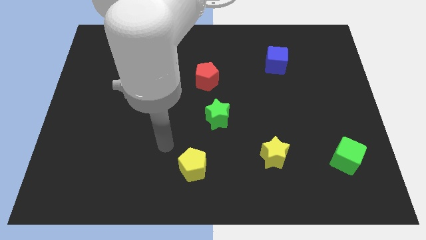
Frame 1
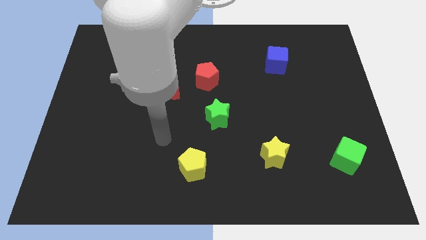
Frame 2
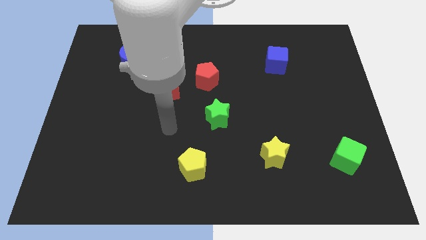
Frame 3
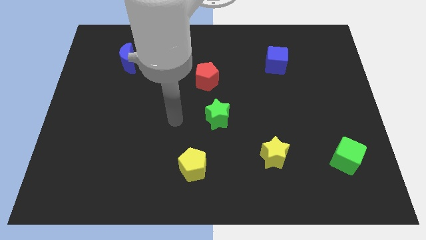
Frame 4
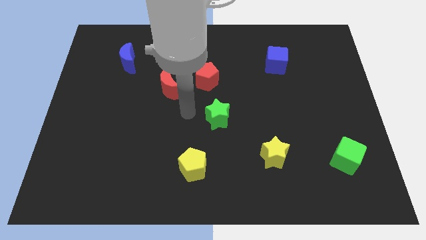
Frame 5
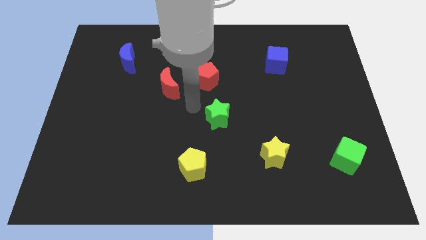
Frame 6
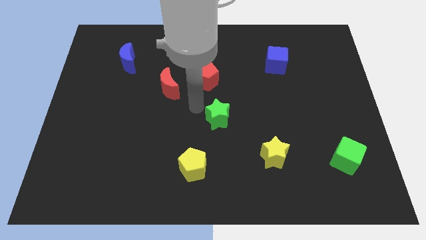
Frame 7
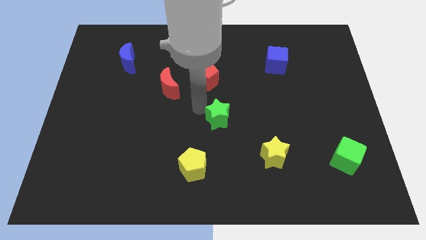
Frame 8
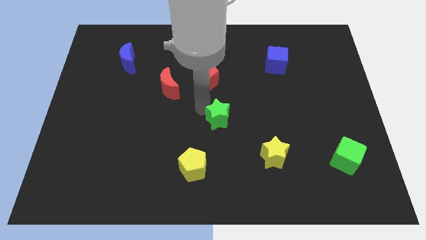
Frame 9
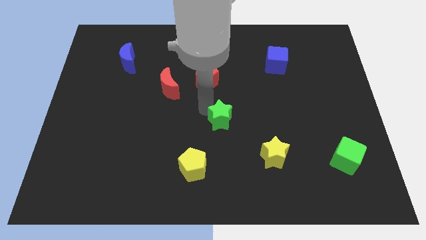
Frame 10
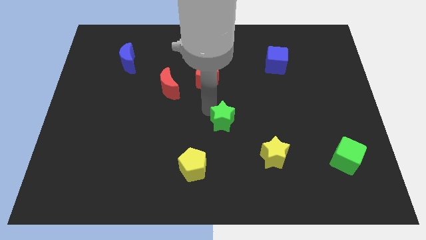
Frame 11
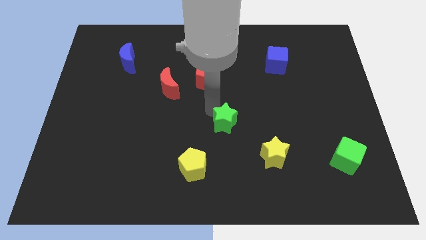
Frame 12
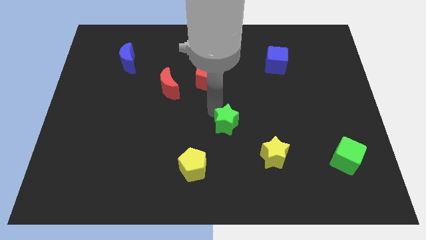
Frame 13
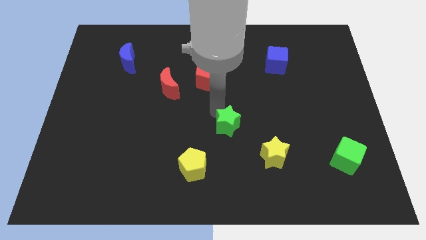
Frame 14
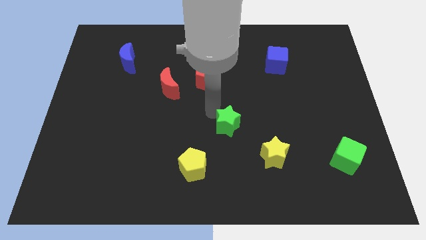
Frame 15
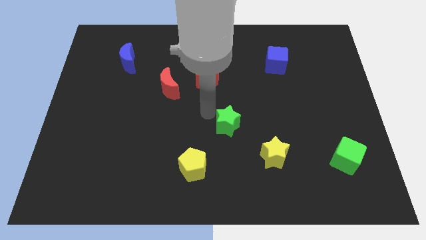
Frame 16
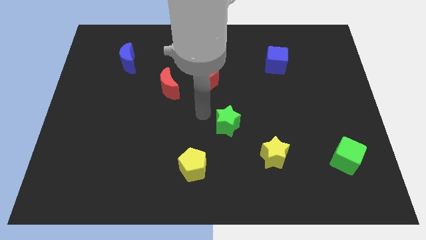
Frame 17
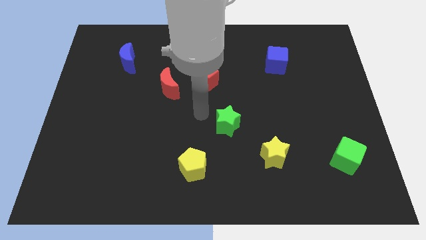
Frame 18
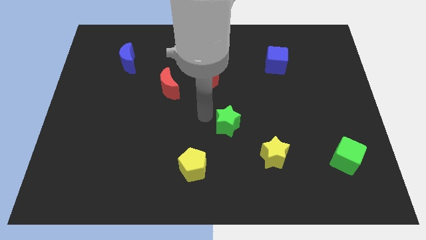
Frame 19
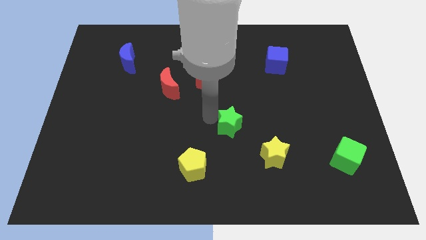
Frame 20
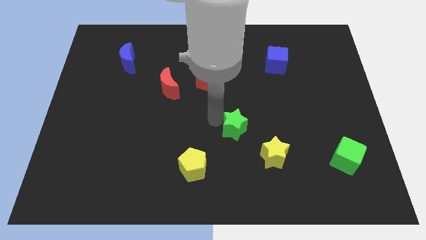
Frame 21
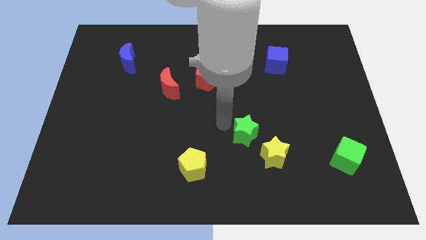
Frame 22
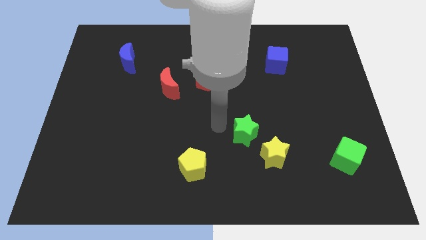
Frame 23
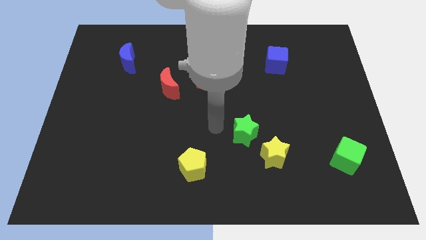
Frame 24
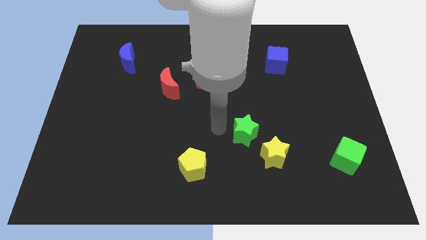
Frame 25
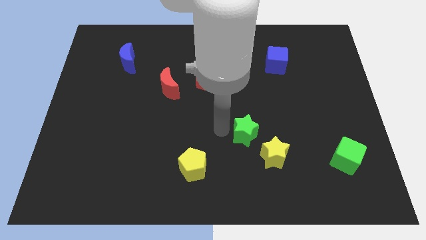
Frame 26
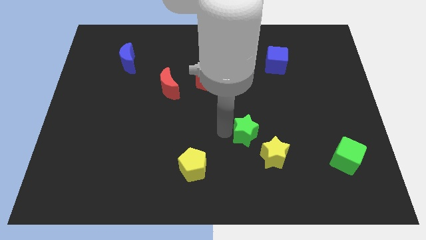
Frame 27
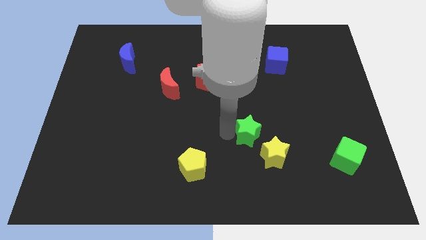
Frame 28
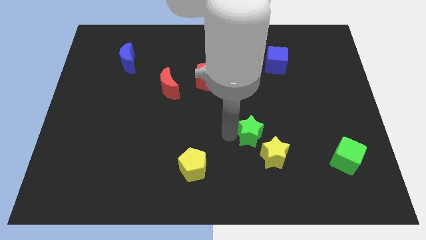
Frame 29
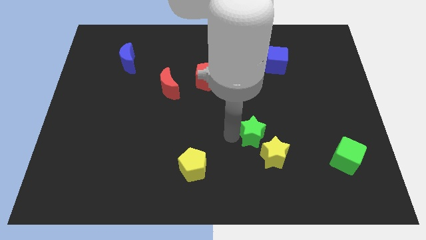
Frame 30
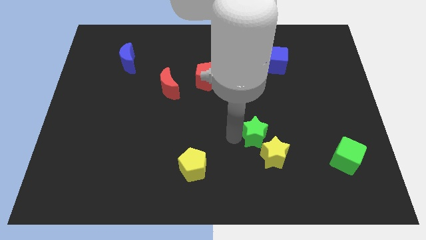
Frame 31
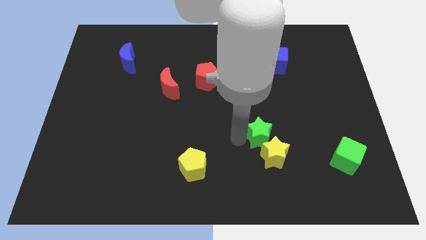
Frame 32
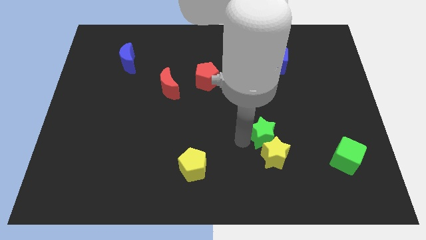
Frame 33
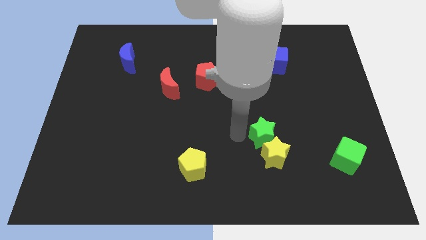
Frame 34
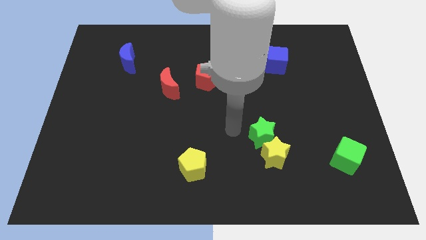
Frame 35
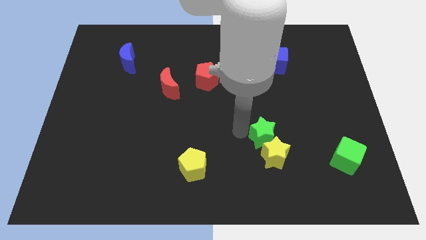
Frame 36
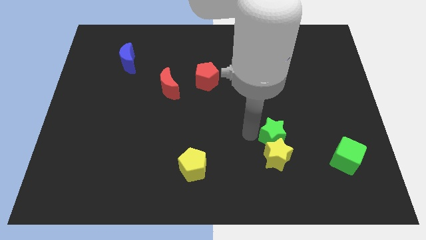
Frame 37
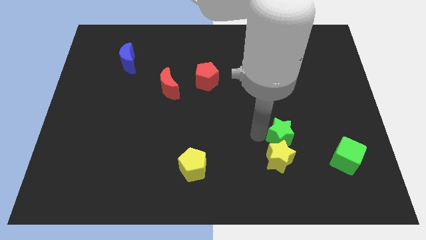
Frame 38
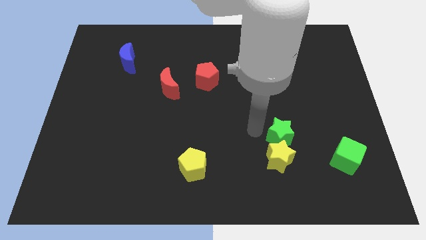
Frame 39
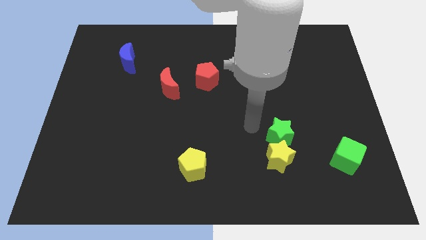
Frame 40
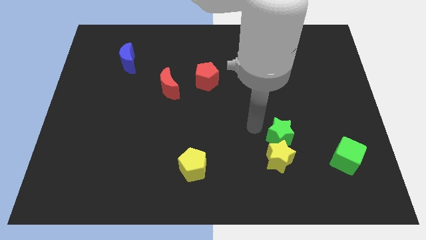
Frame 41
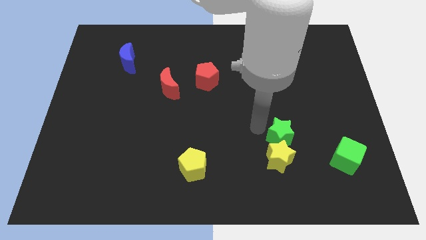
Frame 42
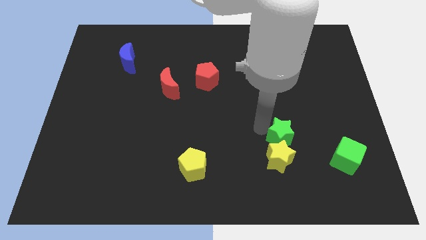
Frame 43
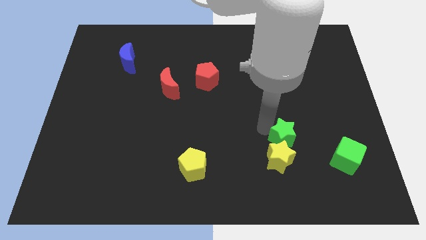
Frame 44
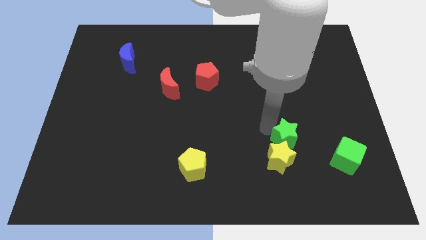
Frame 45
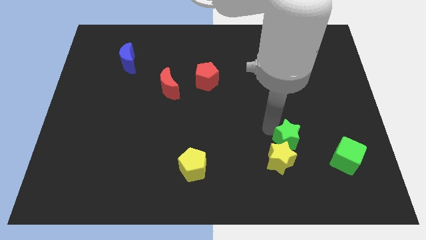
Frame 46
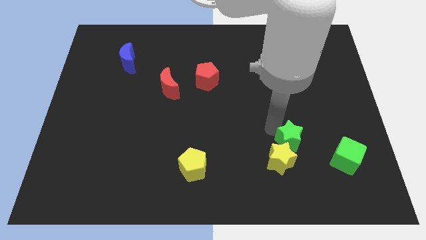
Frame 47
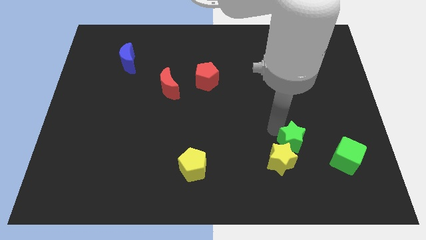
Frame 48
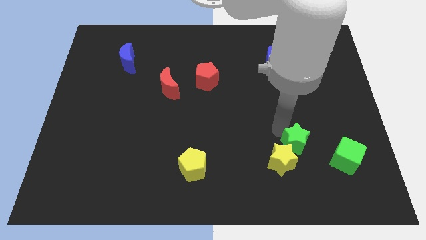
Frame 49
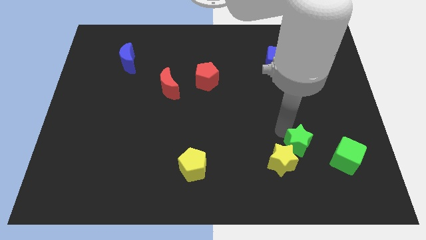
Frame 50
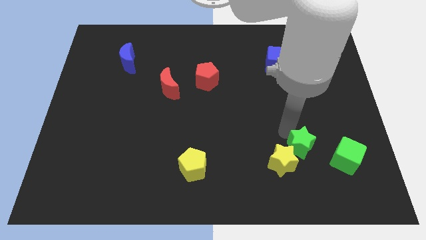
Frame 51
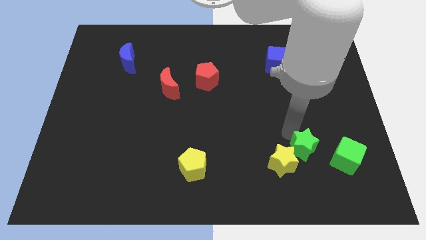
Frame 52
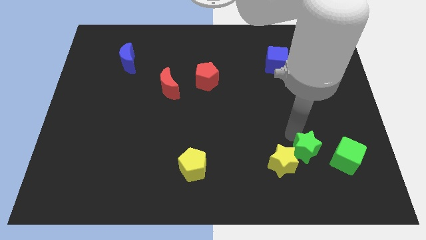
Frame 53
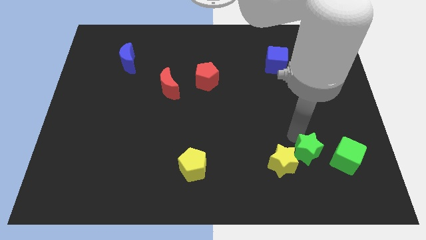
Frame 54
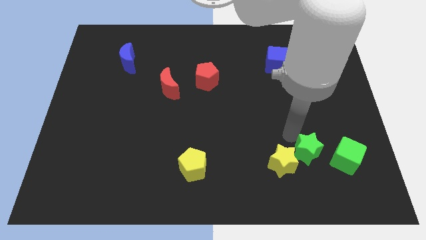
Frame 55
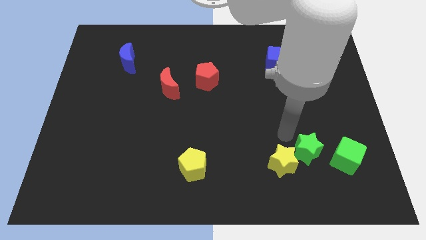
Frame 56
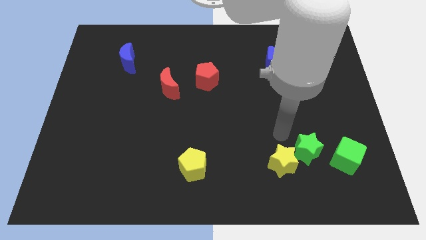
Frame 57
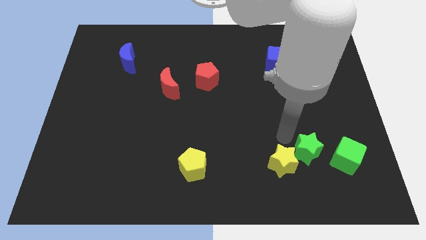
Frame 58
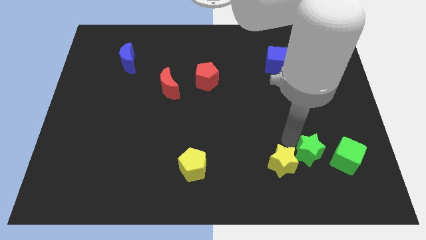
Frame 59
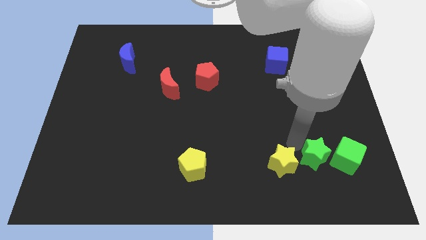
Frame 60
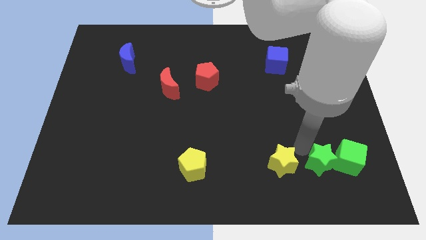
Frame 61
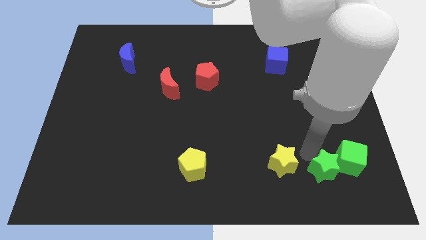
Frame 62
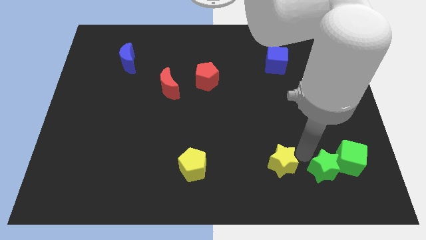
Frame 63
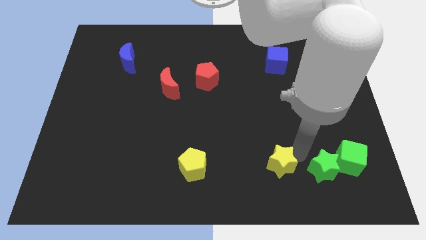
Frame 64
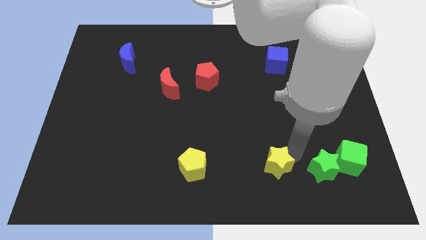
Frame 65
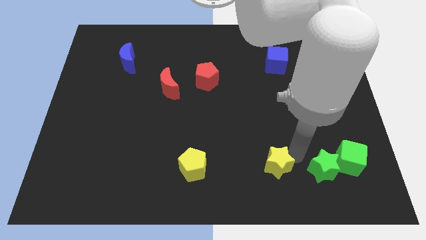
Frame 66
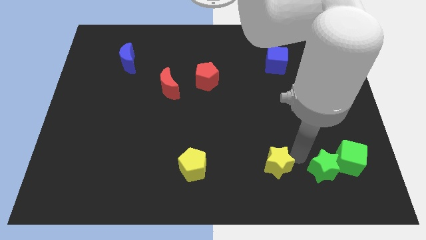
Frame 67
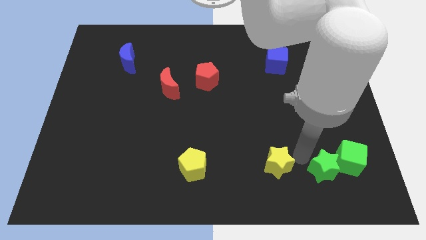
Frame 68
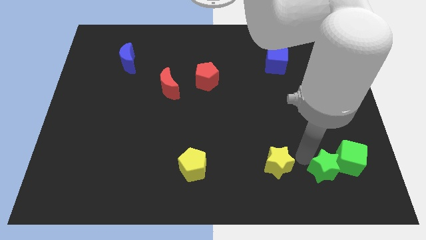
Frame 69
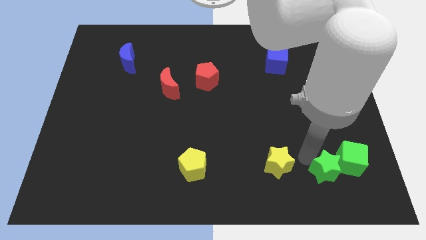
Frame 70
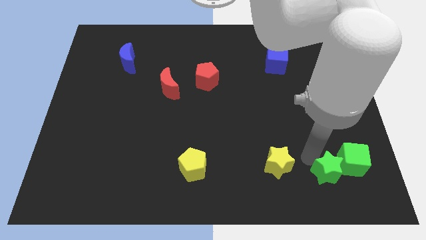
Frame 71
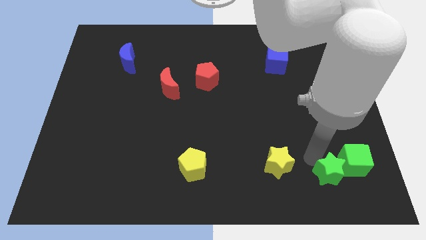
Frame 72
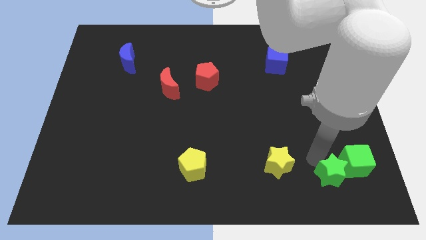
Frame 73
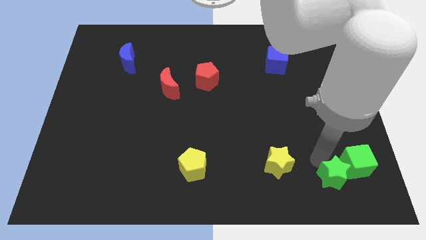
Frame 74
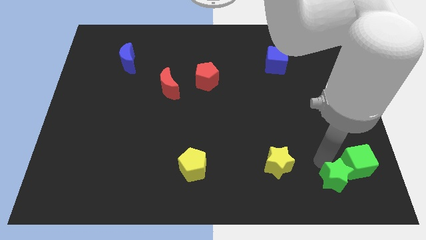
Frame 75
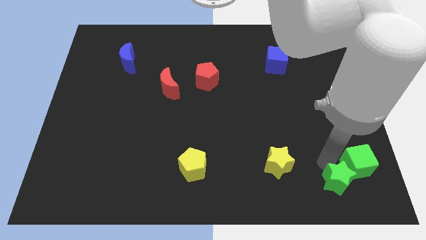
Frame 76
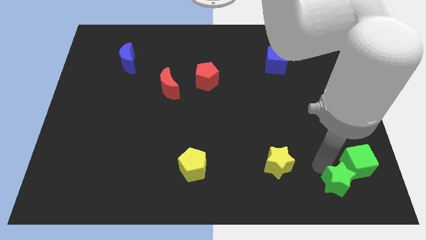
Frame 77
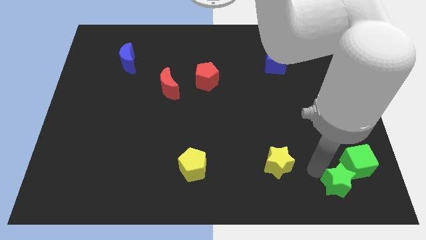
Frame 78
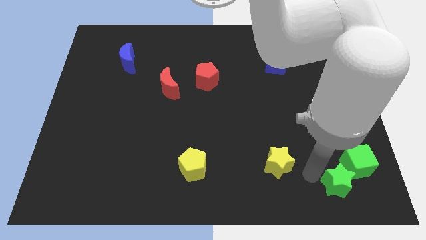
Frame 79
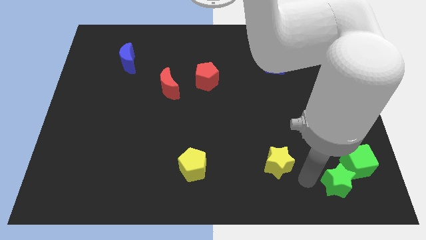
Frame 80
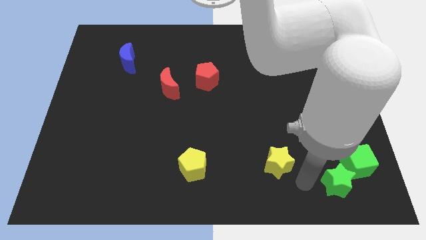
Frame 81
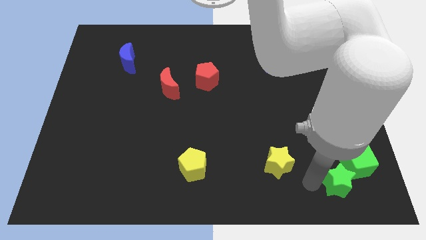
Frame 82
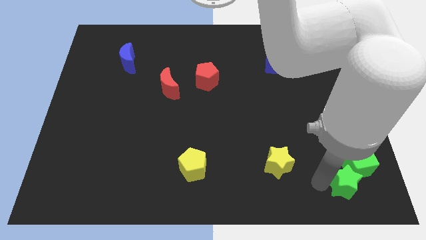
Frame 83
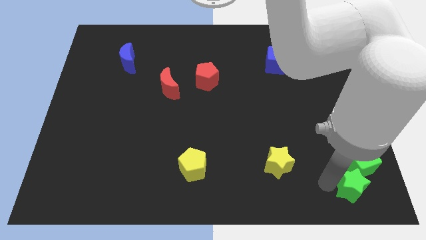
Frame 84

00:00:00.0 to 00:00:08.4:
slide the green star to the bottom right
